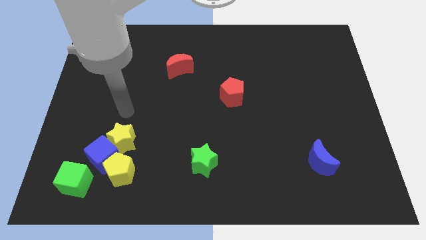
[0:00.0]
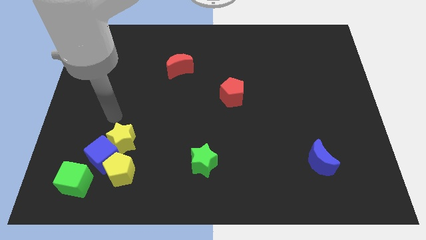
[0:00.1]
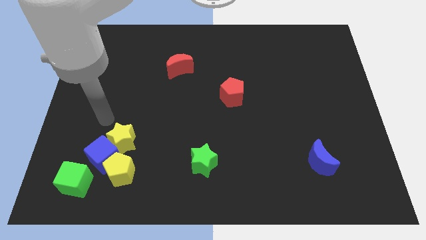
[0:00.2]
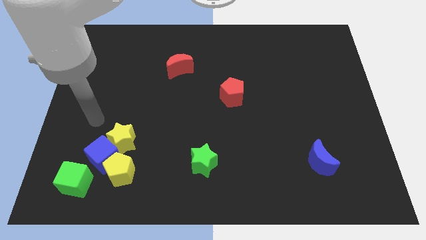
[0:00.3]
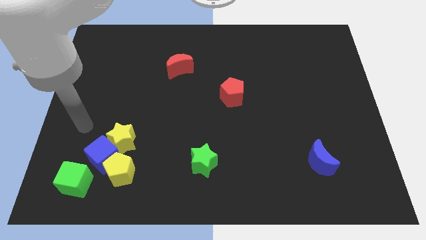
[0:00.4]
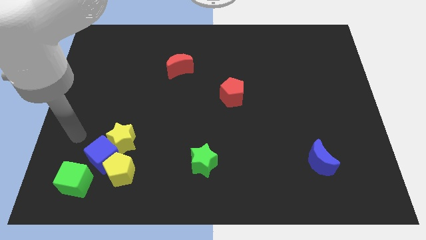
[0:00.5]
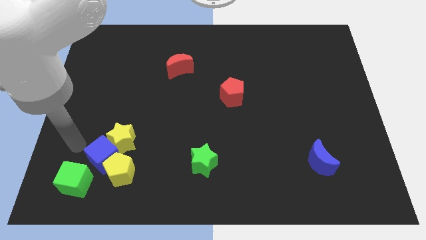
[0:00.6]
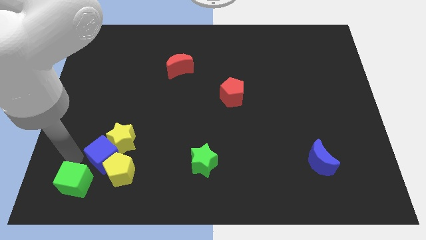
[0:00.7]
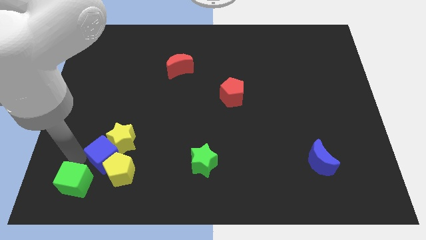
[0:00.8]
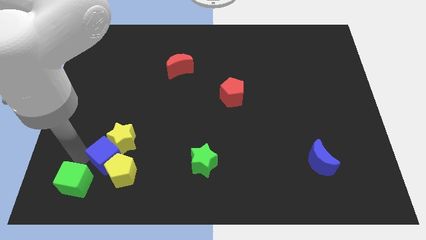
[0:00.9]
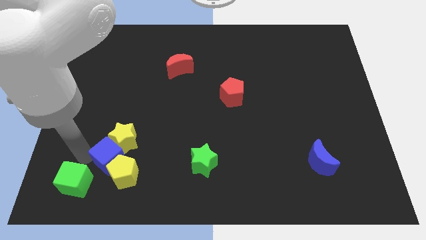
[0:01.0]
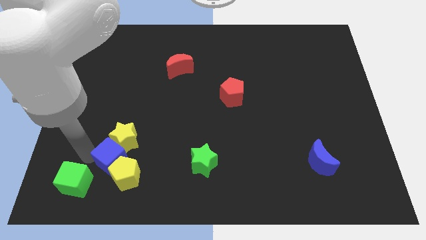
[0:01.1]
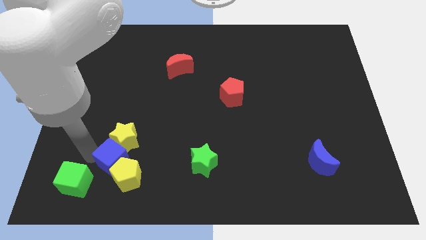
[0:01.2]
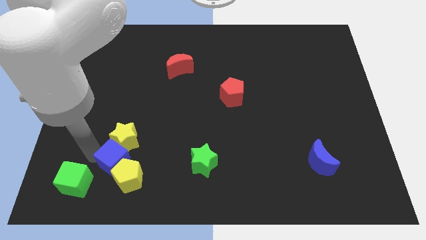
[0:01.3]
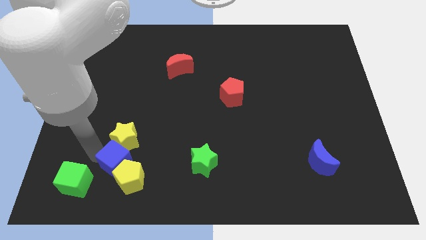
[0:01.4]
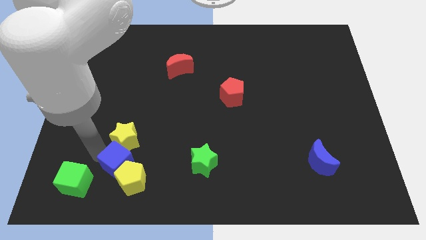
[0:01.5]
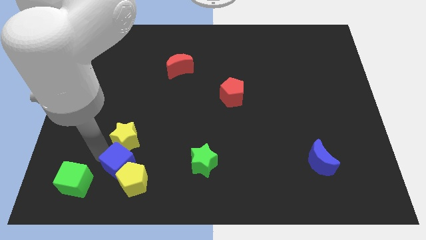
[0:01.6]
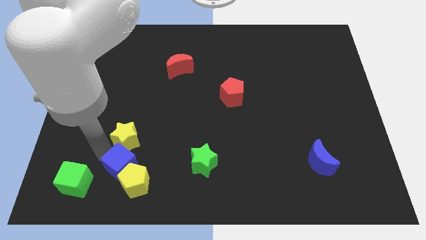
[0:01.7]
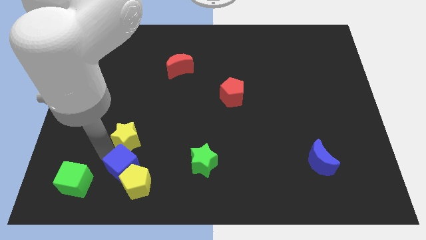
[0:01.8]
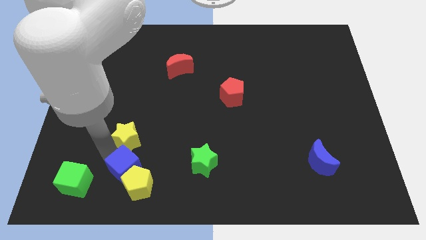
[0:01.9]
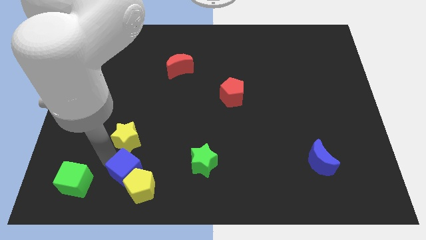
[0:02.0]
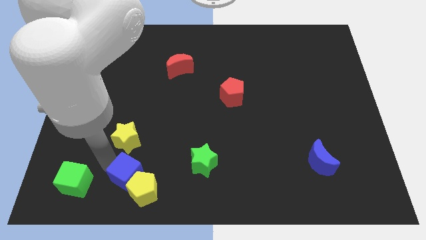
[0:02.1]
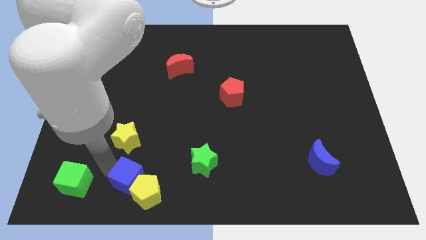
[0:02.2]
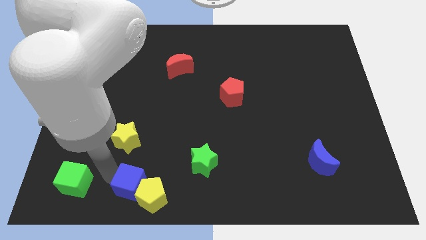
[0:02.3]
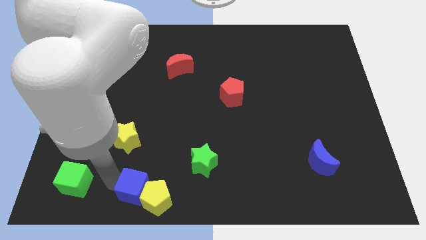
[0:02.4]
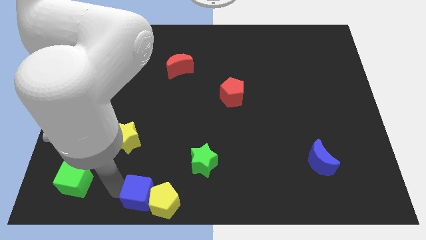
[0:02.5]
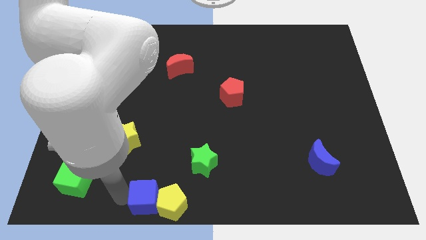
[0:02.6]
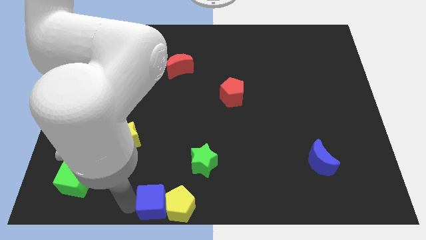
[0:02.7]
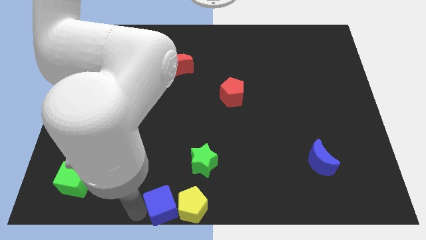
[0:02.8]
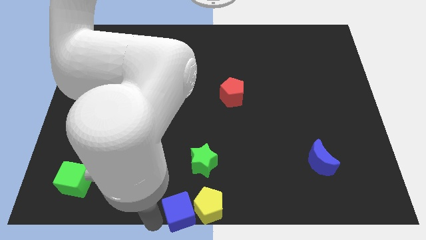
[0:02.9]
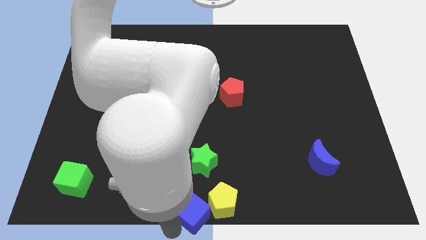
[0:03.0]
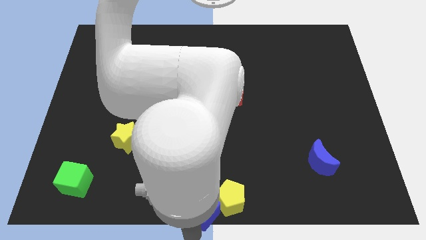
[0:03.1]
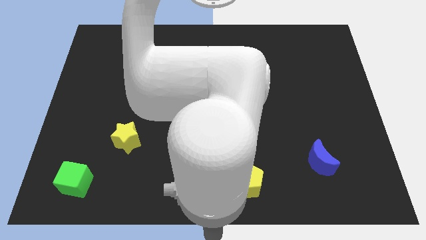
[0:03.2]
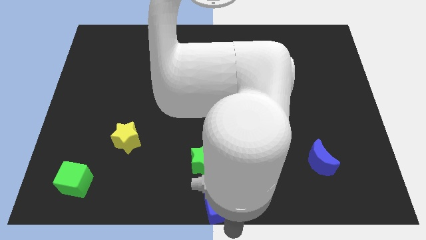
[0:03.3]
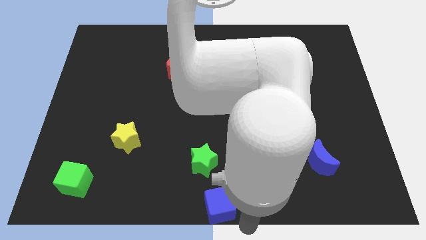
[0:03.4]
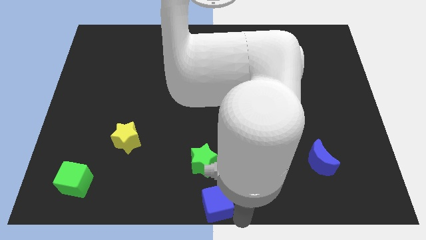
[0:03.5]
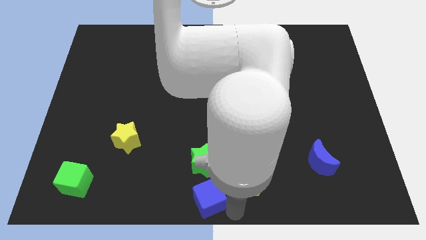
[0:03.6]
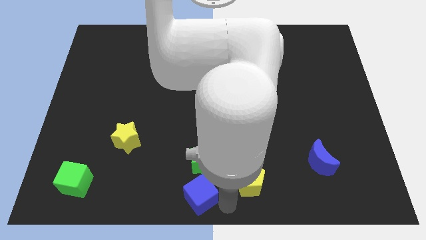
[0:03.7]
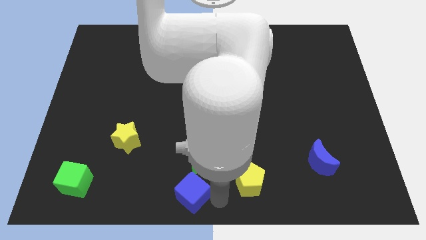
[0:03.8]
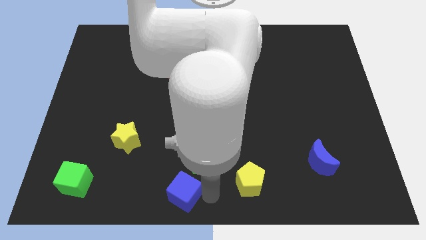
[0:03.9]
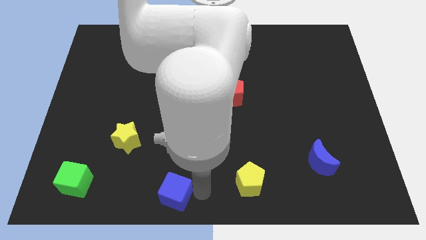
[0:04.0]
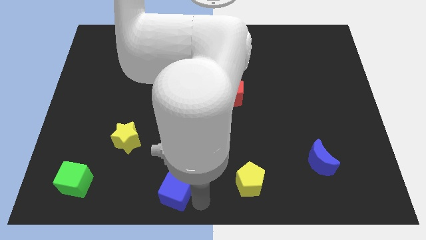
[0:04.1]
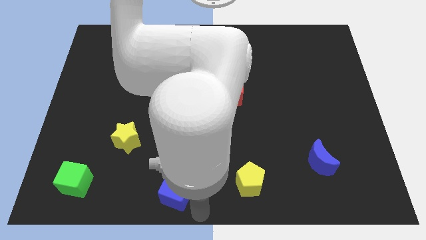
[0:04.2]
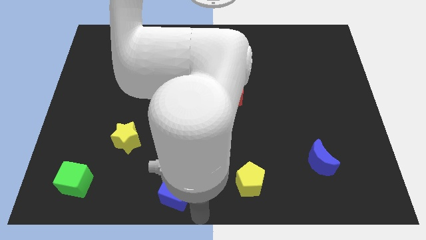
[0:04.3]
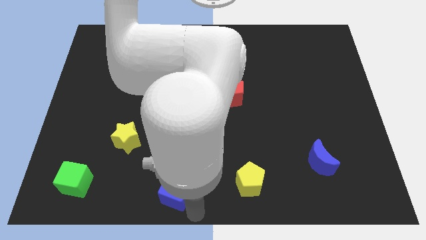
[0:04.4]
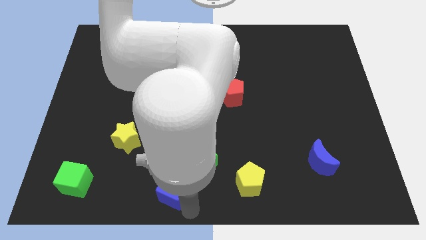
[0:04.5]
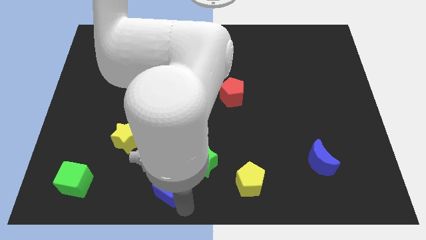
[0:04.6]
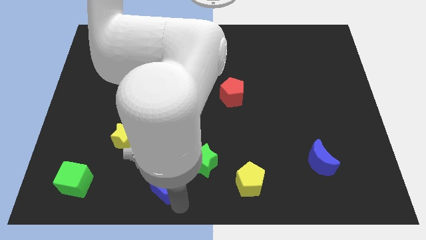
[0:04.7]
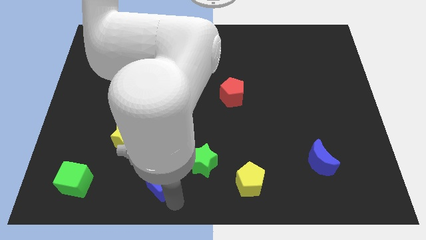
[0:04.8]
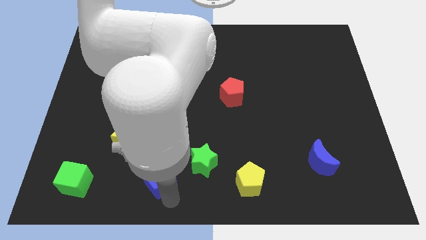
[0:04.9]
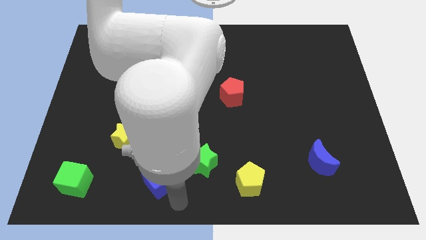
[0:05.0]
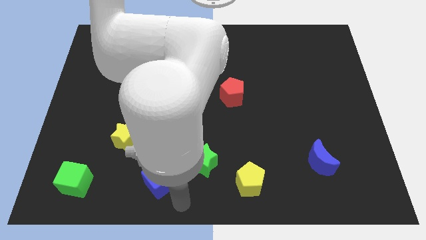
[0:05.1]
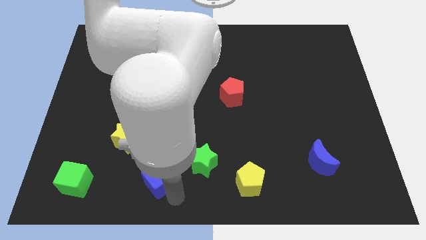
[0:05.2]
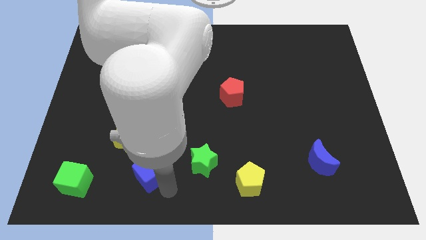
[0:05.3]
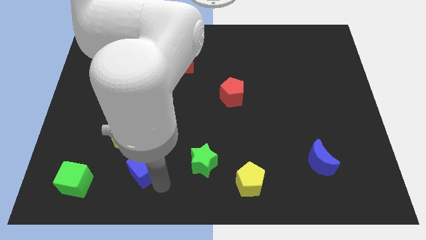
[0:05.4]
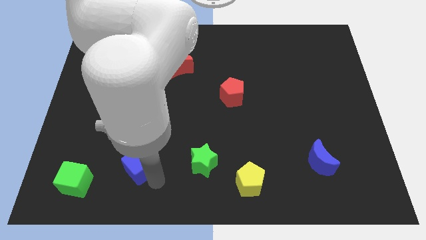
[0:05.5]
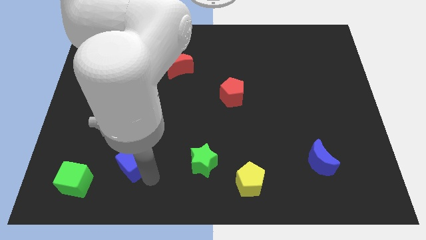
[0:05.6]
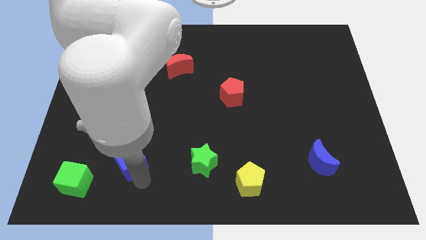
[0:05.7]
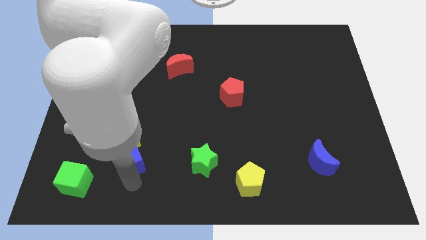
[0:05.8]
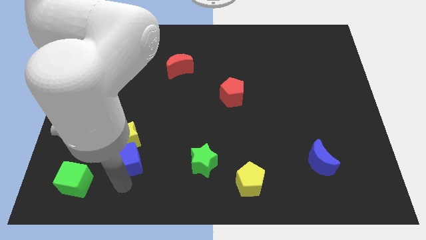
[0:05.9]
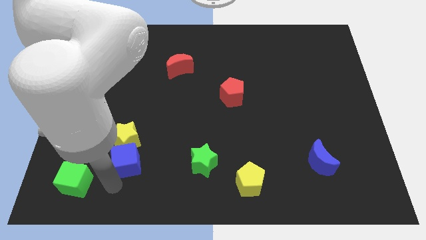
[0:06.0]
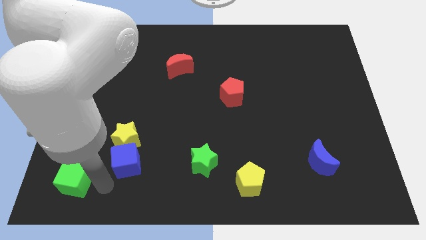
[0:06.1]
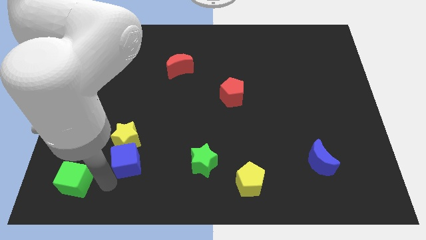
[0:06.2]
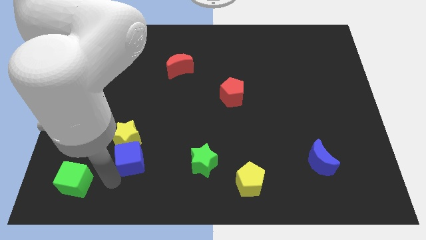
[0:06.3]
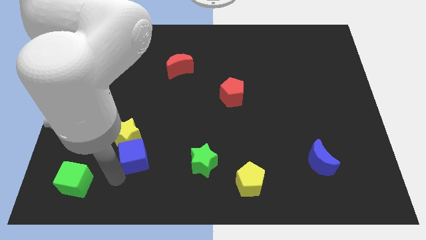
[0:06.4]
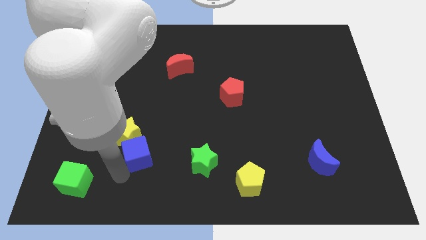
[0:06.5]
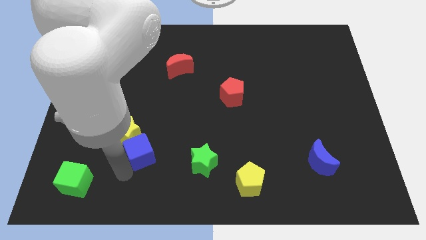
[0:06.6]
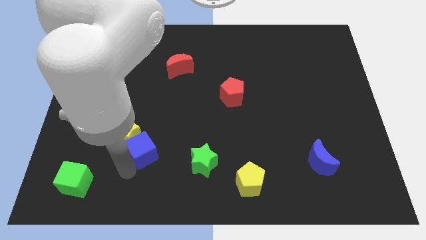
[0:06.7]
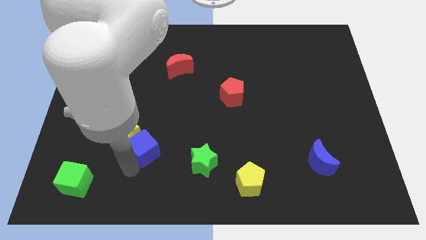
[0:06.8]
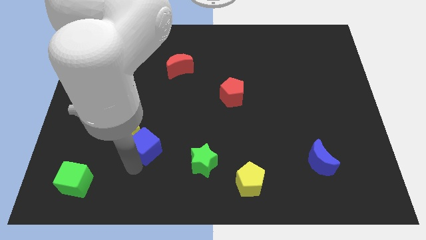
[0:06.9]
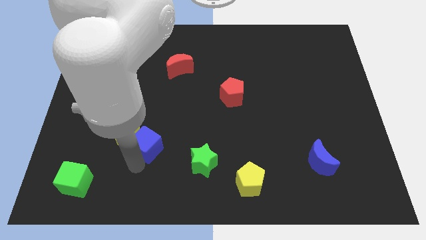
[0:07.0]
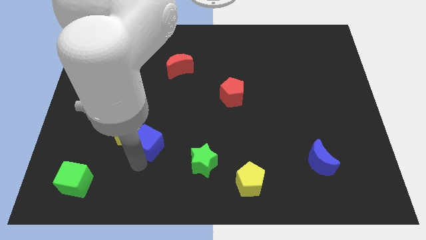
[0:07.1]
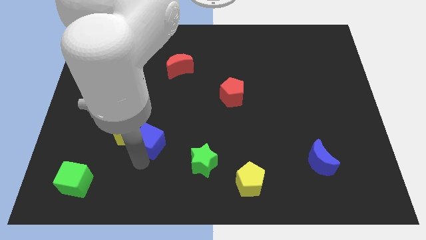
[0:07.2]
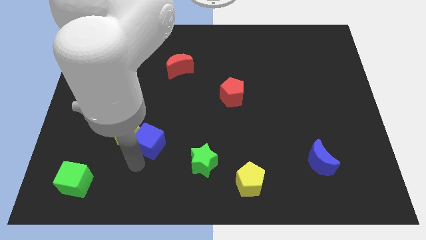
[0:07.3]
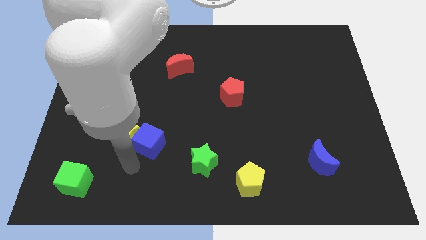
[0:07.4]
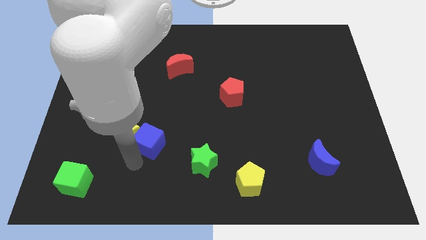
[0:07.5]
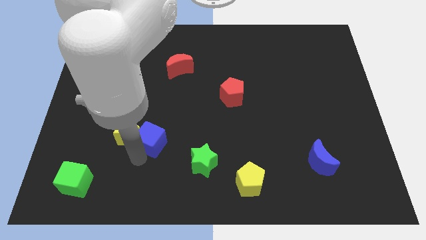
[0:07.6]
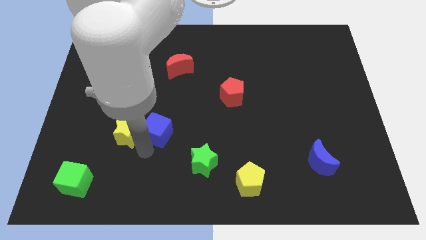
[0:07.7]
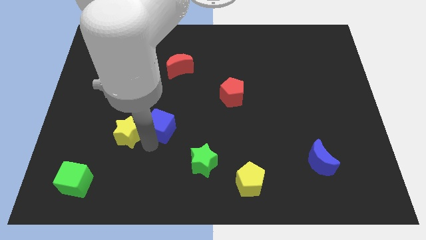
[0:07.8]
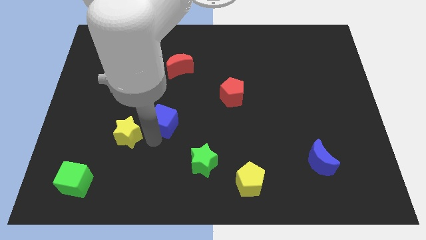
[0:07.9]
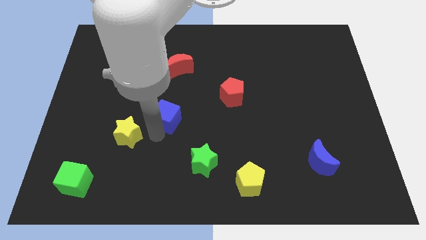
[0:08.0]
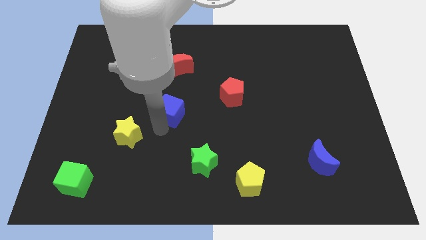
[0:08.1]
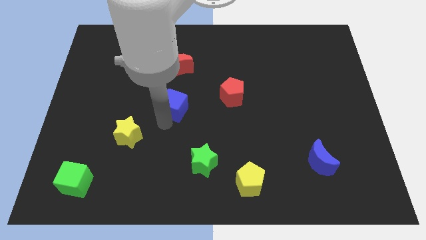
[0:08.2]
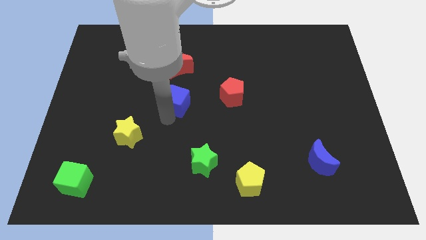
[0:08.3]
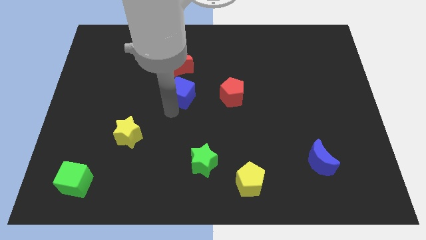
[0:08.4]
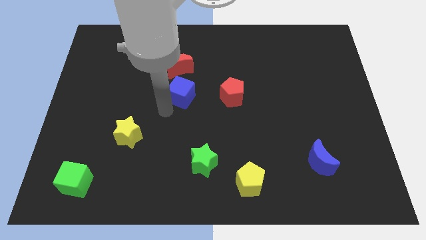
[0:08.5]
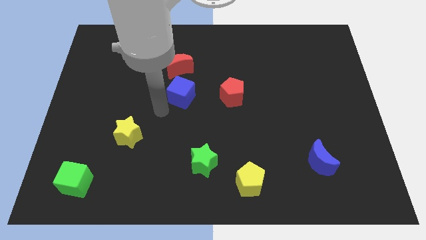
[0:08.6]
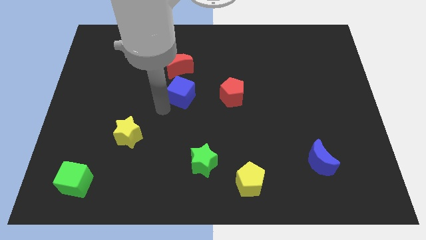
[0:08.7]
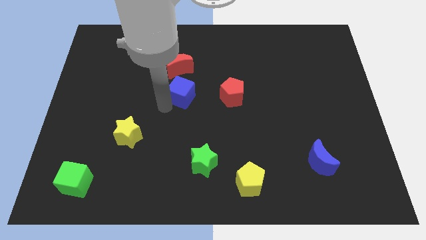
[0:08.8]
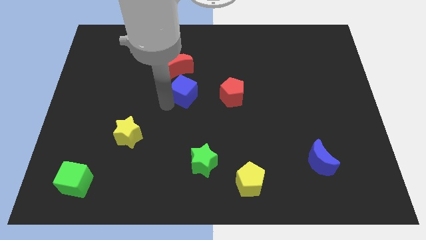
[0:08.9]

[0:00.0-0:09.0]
put the blue cube diagonally down and to the right of the red moon
